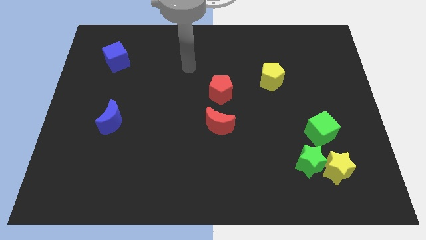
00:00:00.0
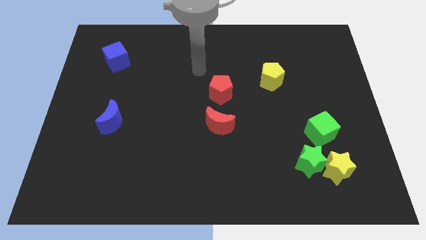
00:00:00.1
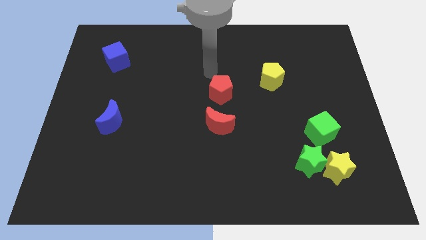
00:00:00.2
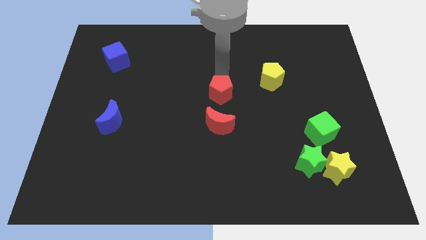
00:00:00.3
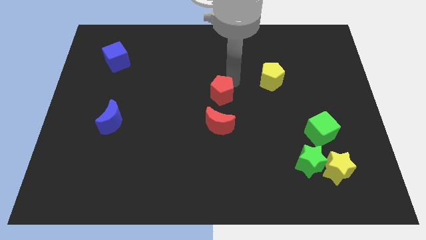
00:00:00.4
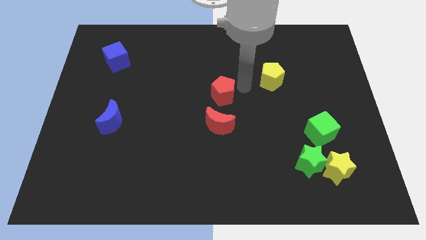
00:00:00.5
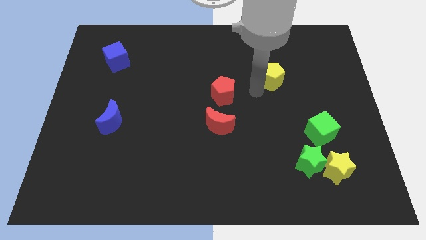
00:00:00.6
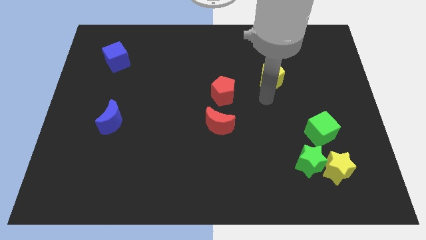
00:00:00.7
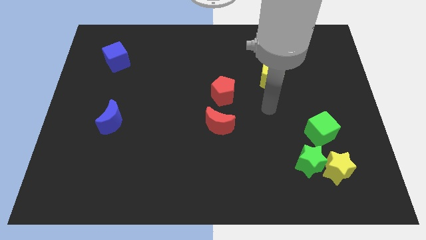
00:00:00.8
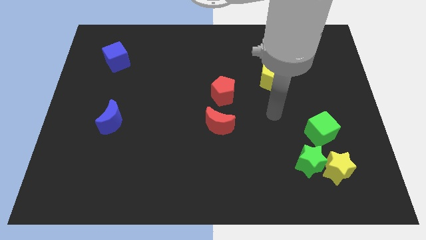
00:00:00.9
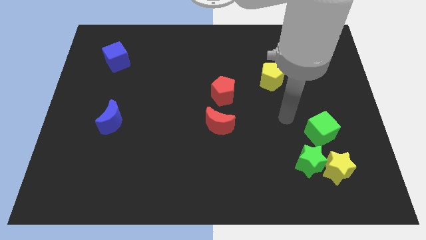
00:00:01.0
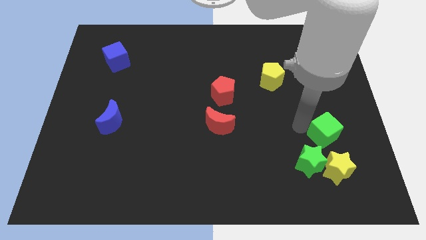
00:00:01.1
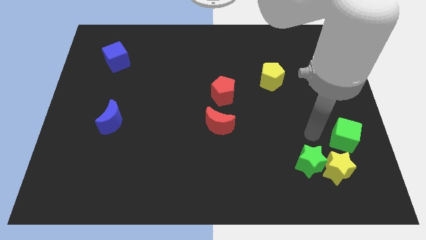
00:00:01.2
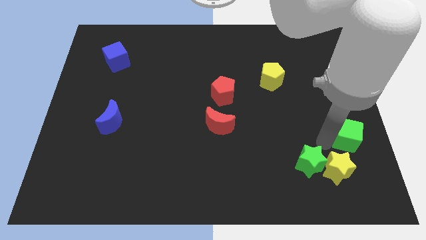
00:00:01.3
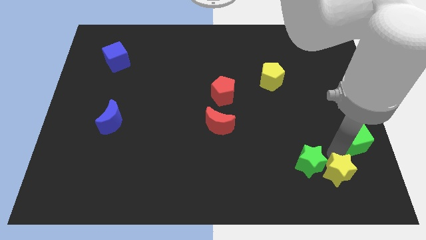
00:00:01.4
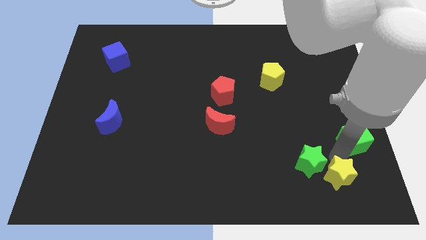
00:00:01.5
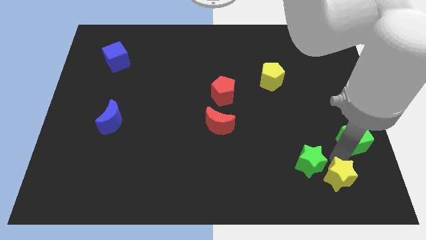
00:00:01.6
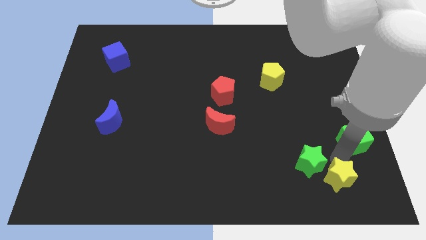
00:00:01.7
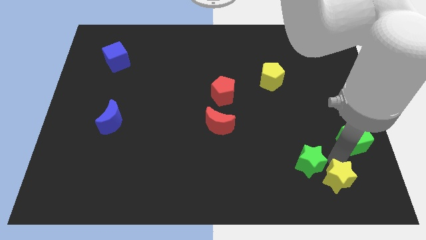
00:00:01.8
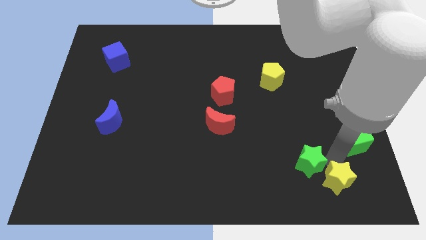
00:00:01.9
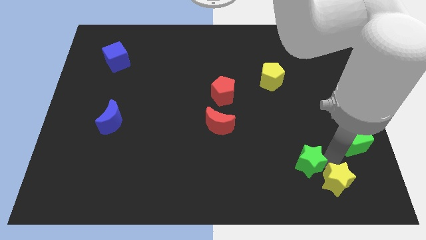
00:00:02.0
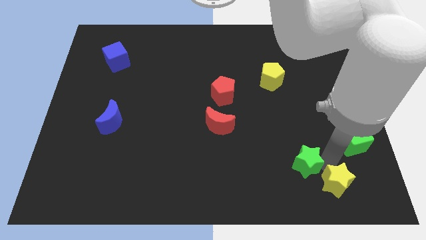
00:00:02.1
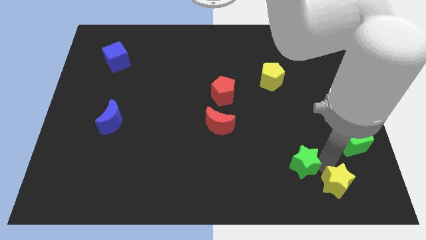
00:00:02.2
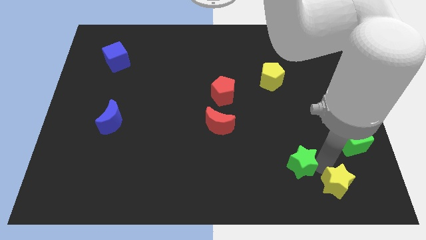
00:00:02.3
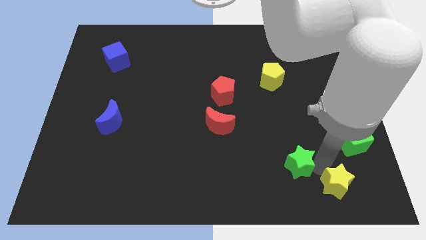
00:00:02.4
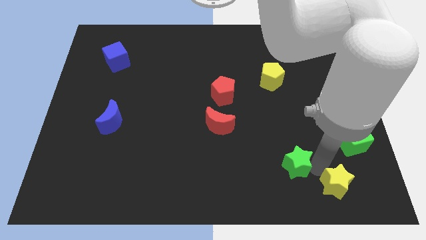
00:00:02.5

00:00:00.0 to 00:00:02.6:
separate the green star from the yellow star and green cube

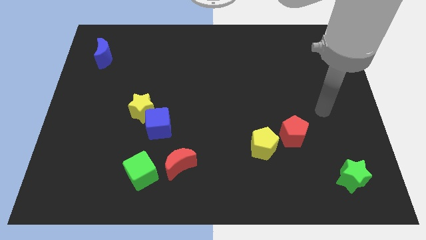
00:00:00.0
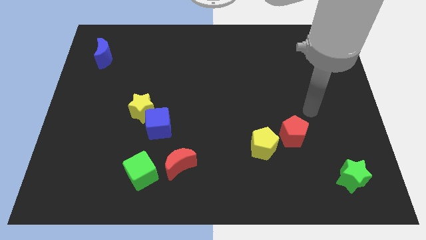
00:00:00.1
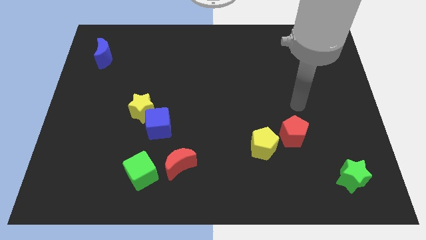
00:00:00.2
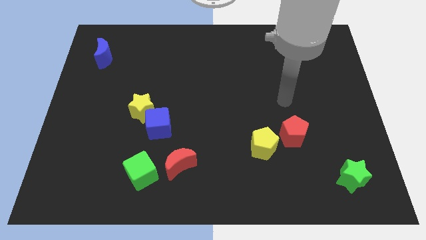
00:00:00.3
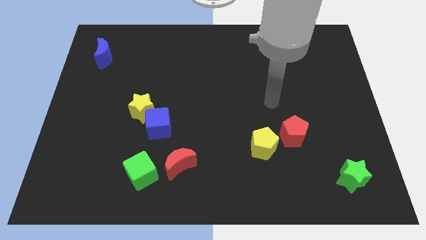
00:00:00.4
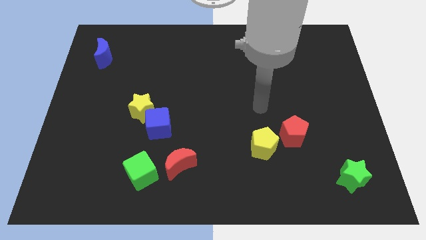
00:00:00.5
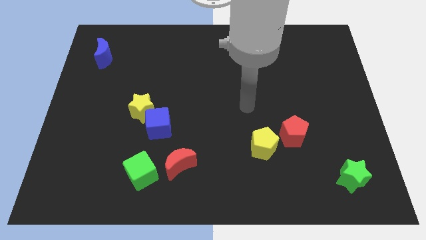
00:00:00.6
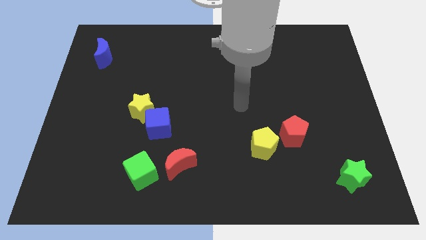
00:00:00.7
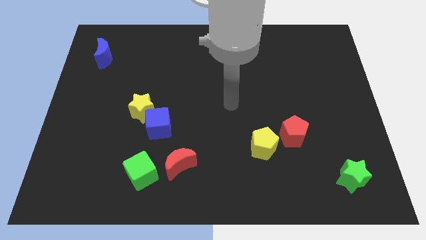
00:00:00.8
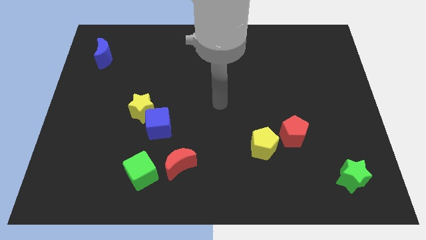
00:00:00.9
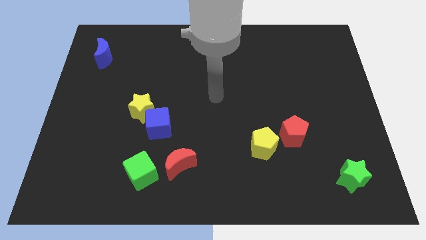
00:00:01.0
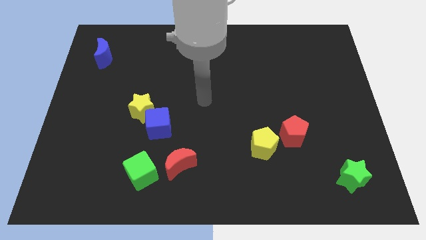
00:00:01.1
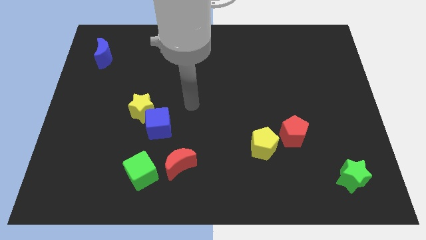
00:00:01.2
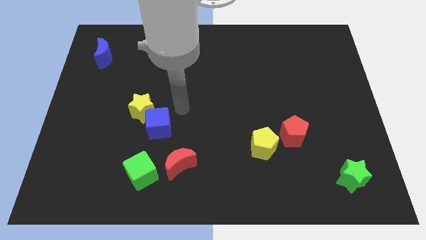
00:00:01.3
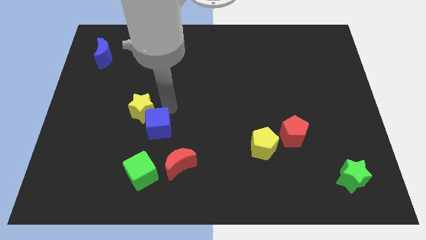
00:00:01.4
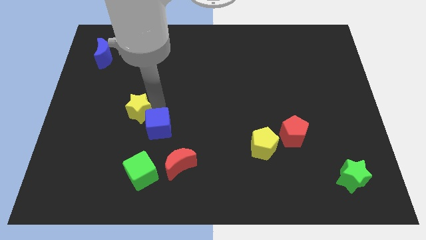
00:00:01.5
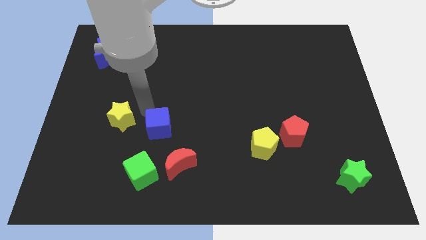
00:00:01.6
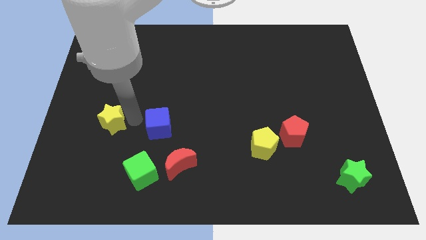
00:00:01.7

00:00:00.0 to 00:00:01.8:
pull the blue cube apart from the yellow star

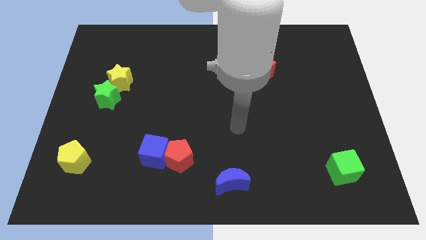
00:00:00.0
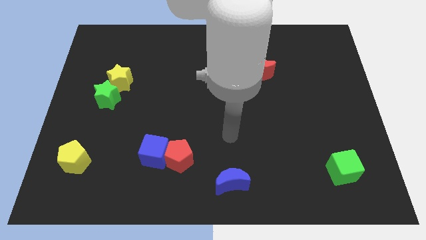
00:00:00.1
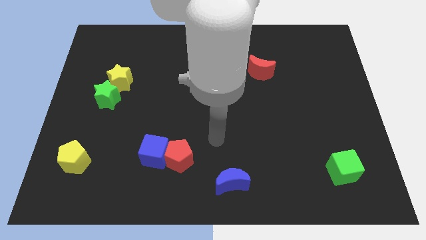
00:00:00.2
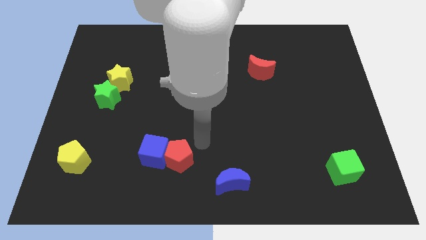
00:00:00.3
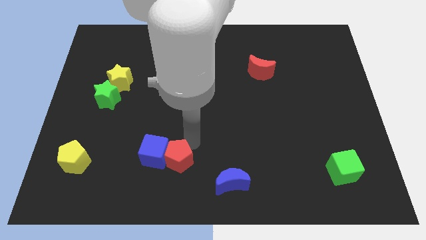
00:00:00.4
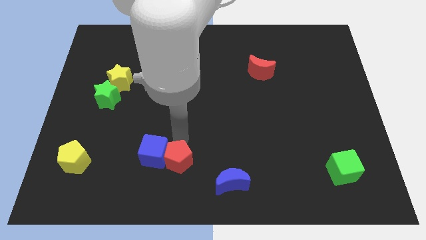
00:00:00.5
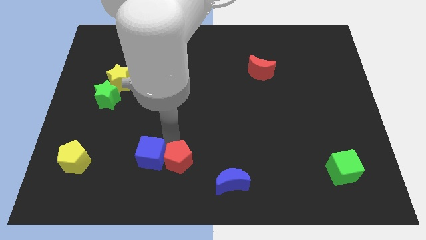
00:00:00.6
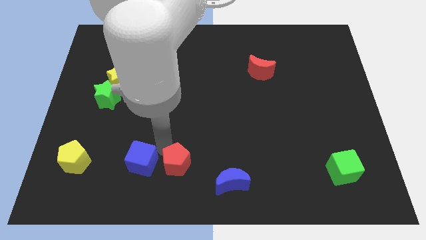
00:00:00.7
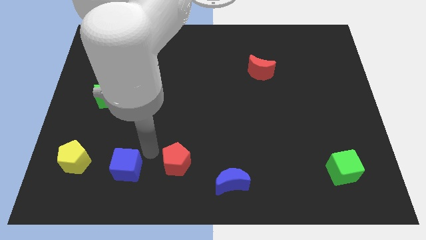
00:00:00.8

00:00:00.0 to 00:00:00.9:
separate the red pentagon from the blue cube

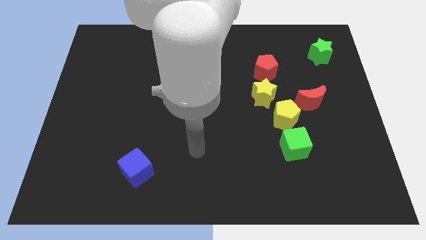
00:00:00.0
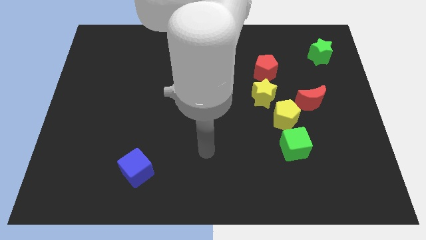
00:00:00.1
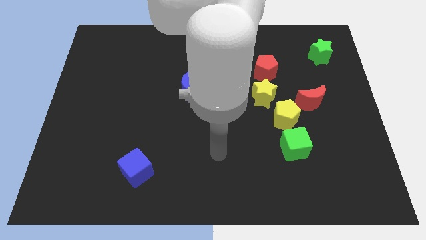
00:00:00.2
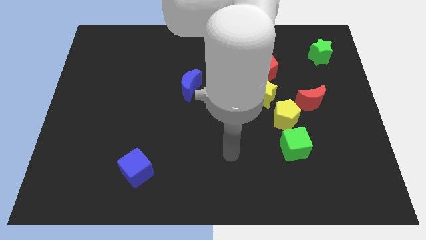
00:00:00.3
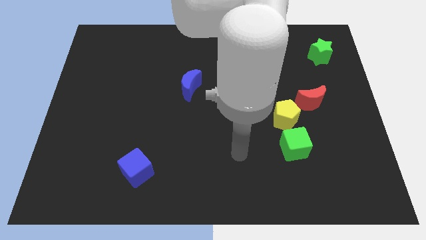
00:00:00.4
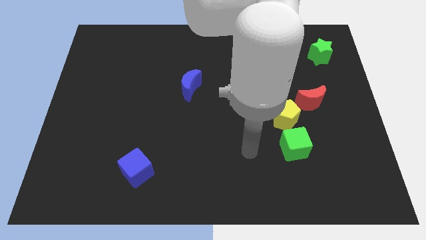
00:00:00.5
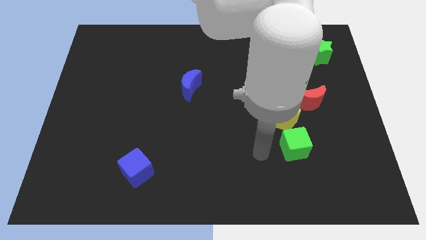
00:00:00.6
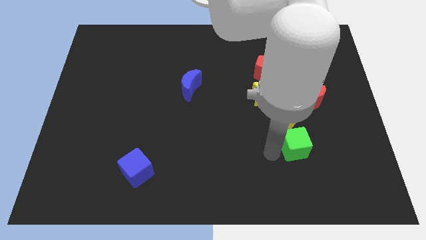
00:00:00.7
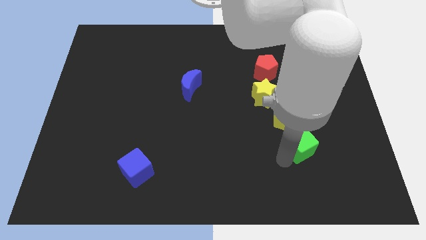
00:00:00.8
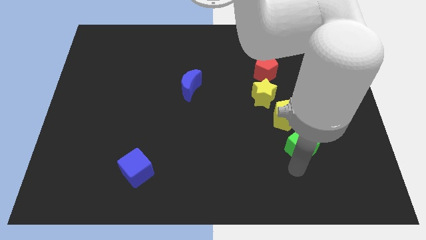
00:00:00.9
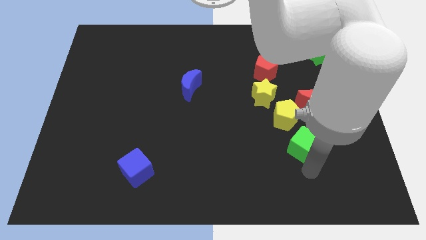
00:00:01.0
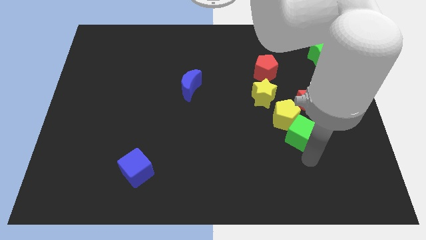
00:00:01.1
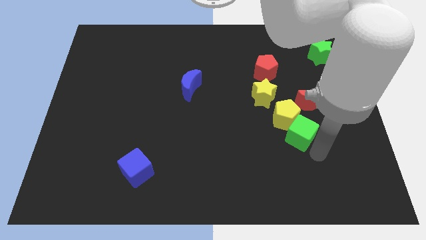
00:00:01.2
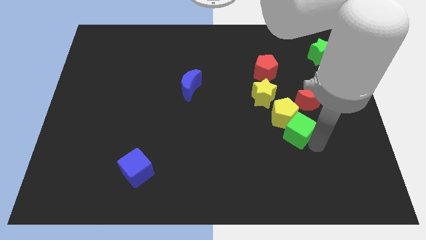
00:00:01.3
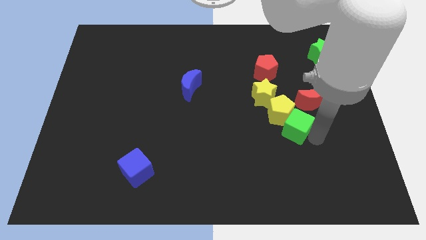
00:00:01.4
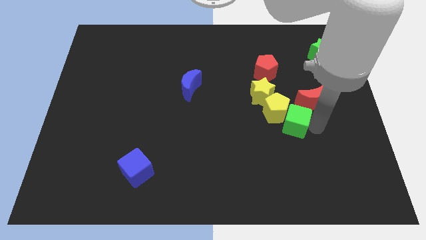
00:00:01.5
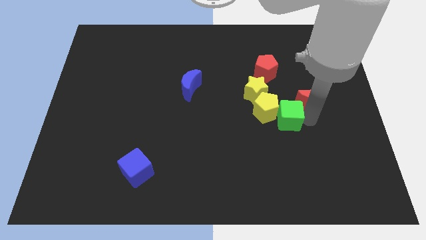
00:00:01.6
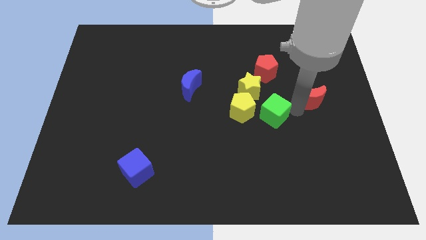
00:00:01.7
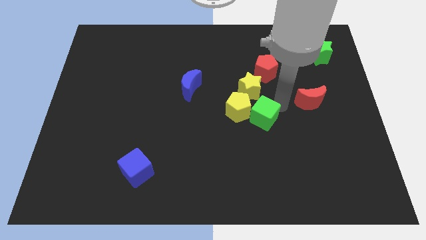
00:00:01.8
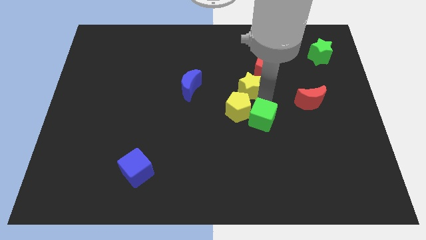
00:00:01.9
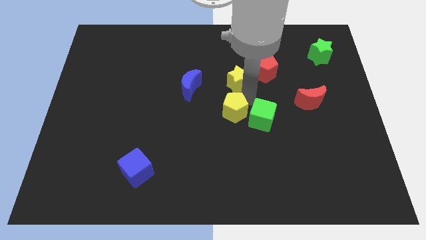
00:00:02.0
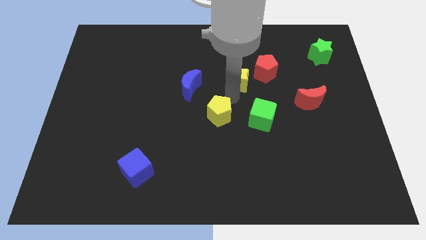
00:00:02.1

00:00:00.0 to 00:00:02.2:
move the yellow pentagon away from the yellow star, green cube, and red moon

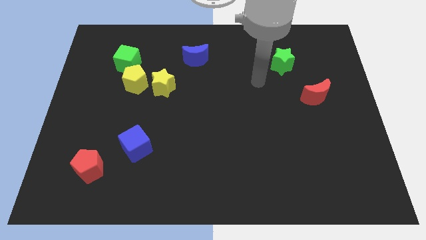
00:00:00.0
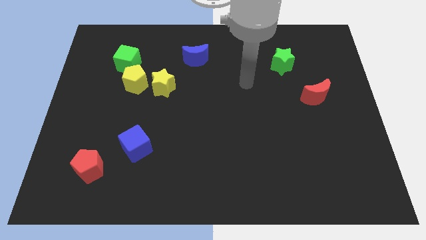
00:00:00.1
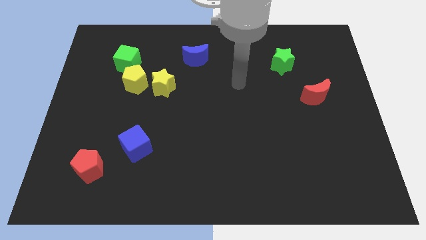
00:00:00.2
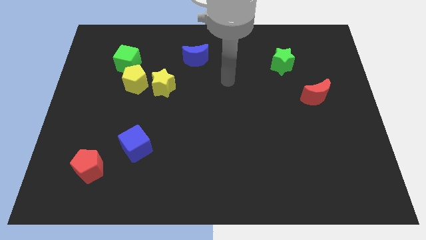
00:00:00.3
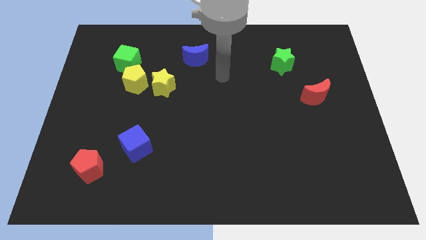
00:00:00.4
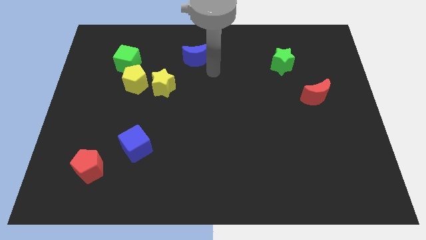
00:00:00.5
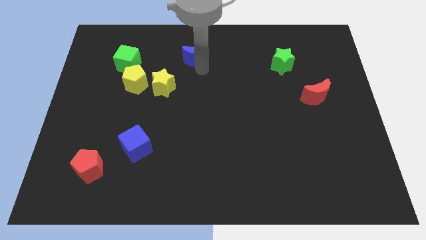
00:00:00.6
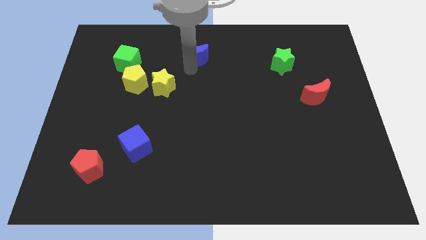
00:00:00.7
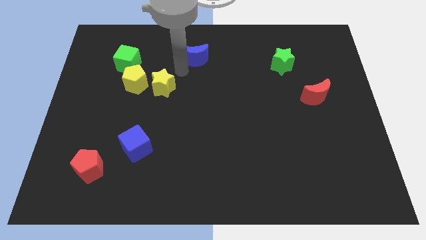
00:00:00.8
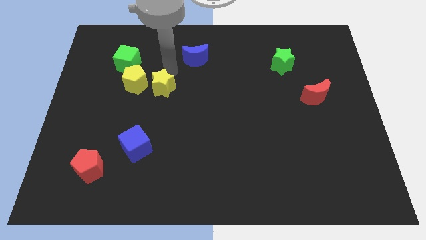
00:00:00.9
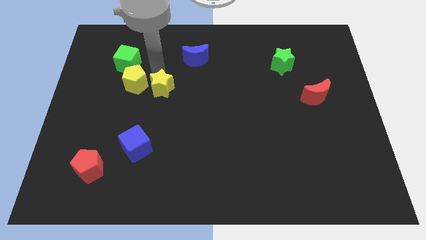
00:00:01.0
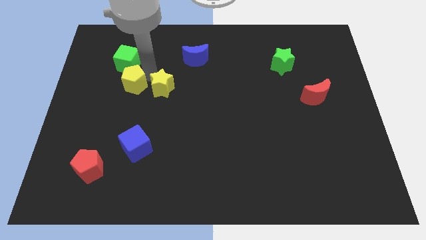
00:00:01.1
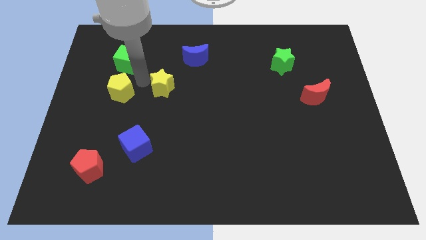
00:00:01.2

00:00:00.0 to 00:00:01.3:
pull the yellow star apart from the yellow pentagon

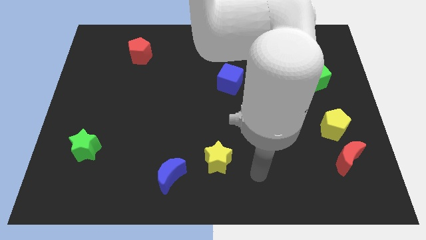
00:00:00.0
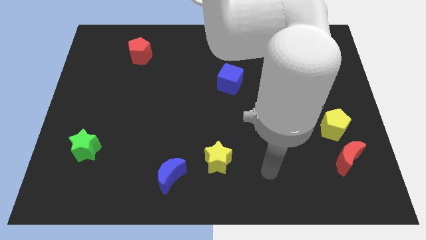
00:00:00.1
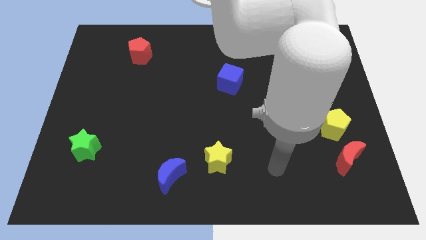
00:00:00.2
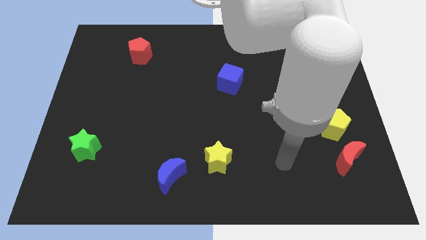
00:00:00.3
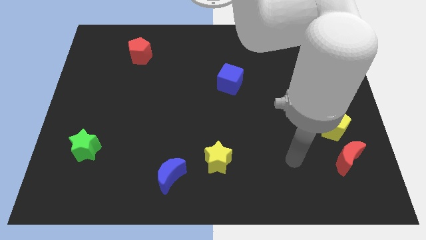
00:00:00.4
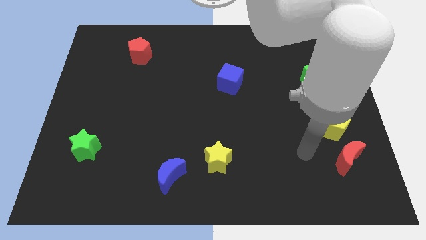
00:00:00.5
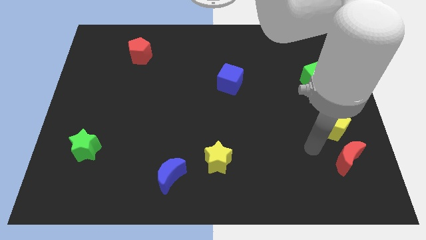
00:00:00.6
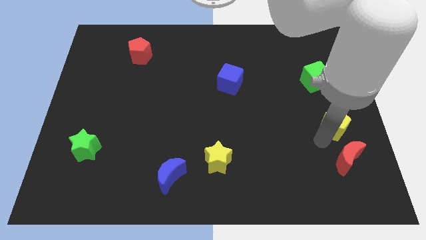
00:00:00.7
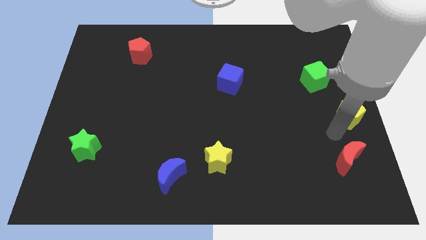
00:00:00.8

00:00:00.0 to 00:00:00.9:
separate the red moon from the yellow pentagon
